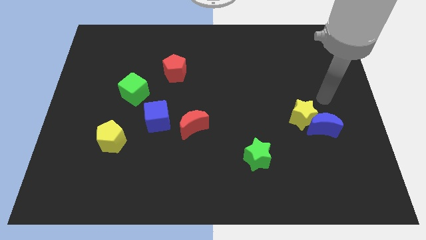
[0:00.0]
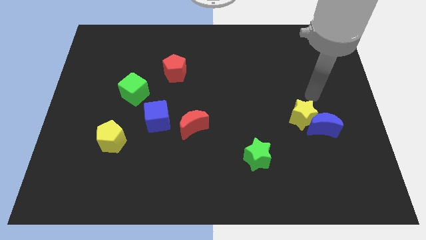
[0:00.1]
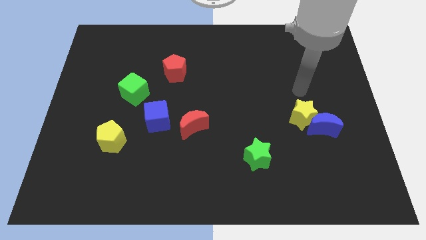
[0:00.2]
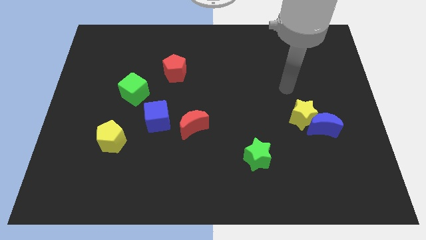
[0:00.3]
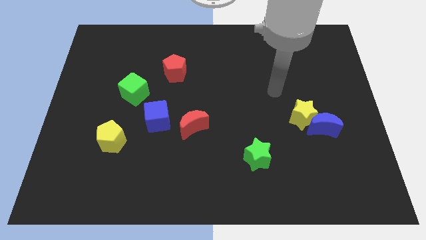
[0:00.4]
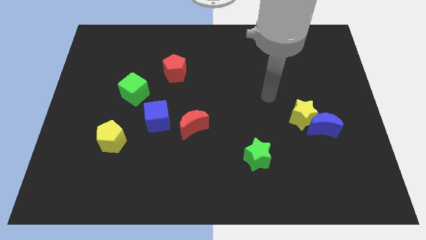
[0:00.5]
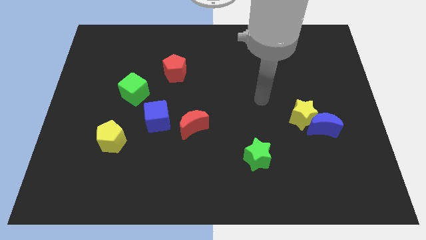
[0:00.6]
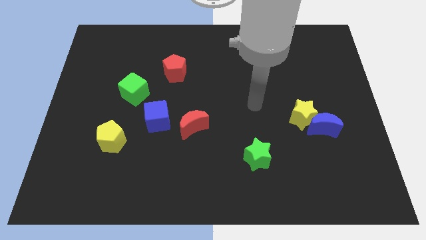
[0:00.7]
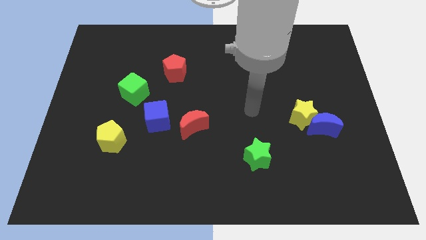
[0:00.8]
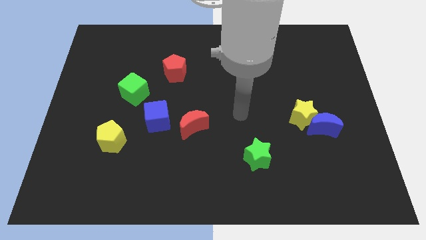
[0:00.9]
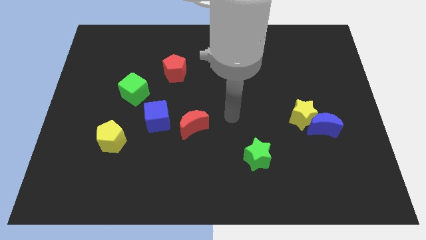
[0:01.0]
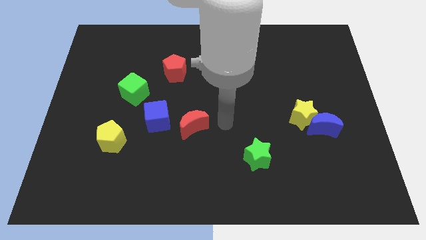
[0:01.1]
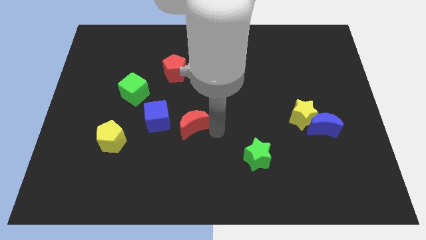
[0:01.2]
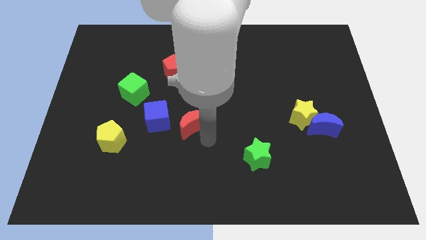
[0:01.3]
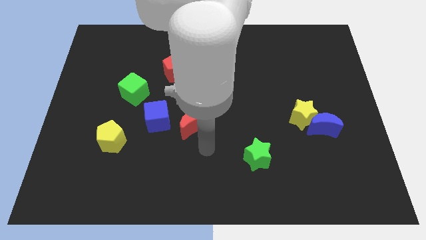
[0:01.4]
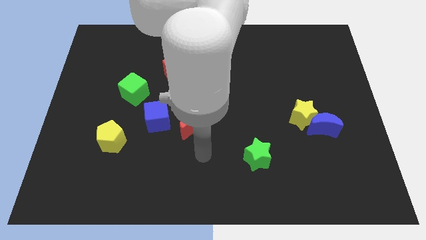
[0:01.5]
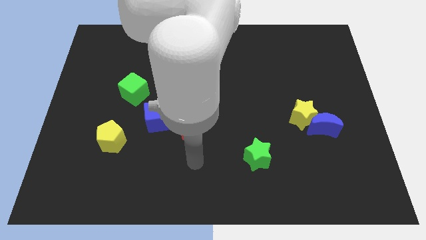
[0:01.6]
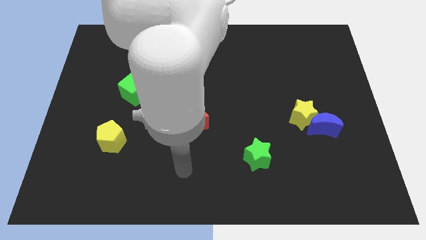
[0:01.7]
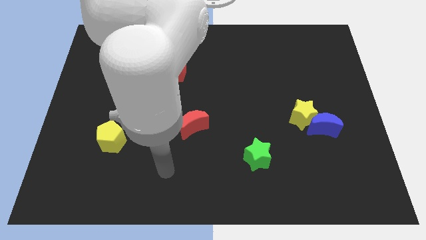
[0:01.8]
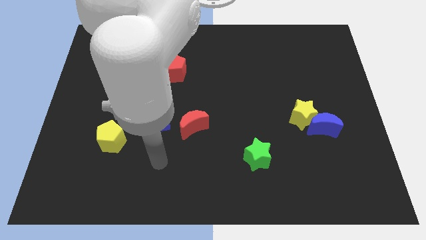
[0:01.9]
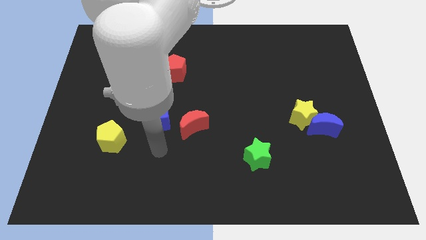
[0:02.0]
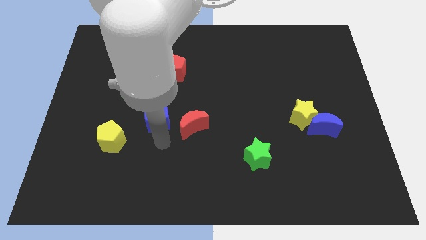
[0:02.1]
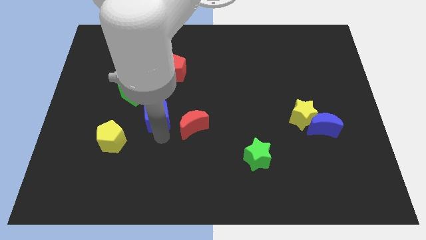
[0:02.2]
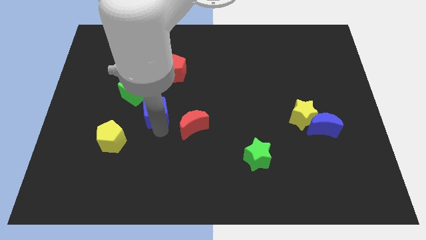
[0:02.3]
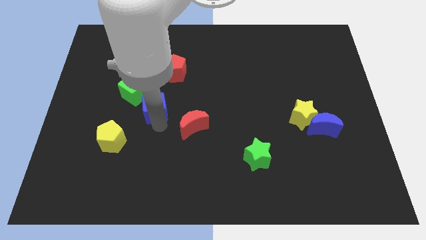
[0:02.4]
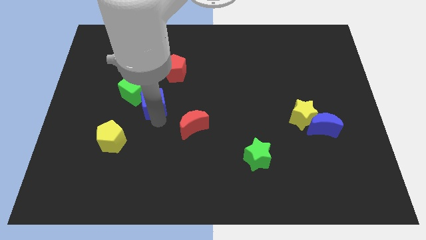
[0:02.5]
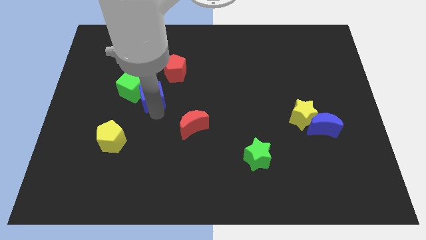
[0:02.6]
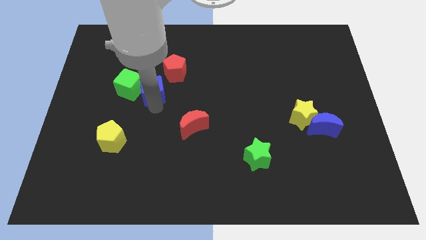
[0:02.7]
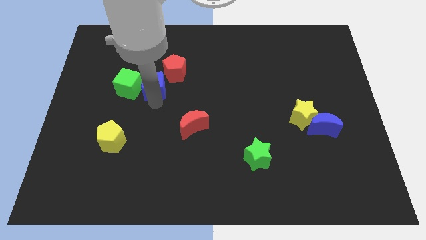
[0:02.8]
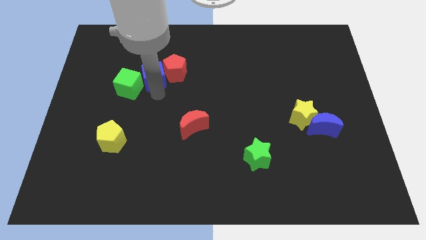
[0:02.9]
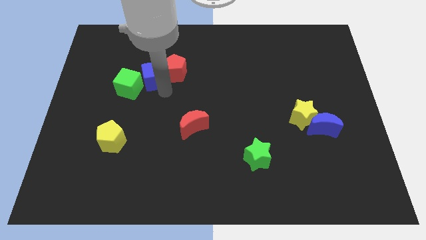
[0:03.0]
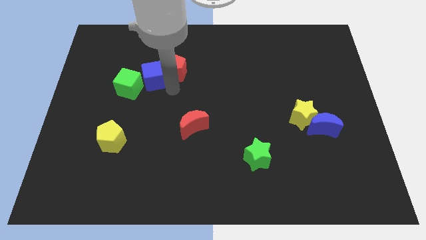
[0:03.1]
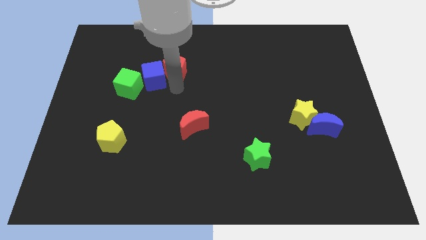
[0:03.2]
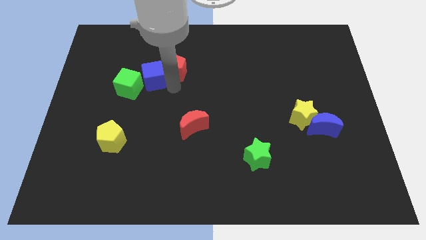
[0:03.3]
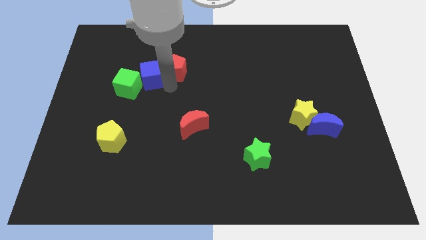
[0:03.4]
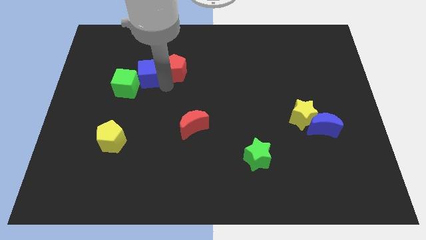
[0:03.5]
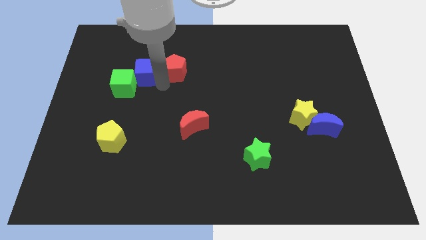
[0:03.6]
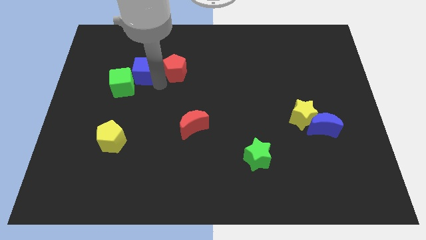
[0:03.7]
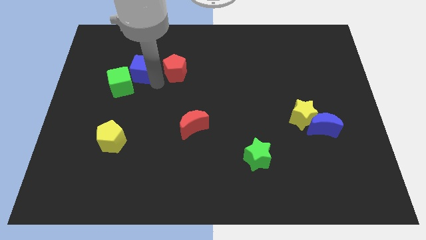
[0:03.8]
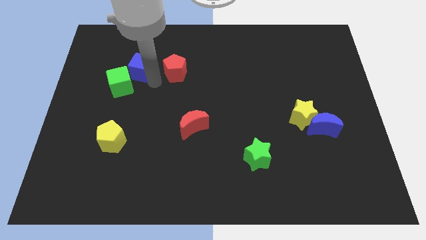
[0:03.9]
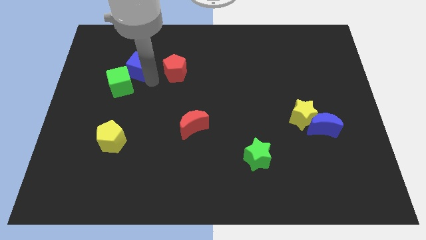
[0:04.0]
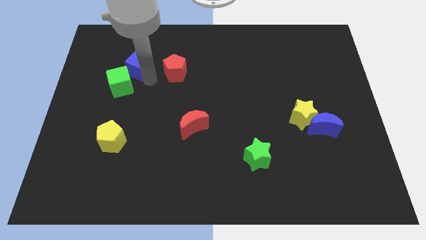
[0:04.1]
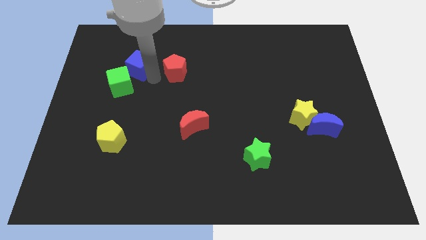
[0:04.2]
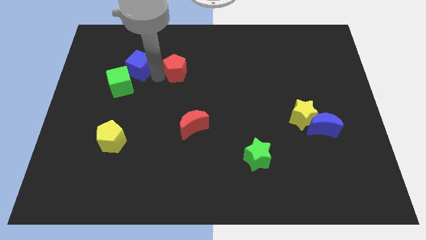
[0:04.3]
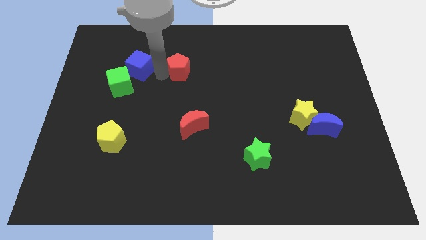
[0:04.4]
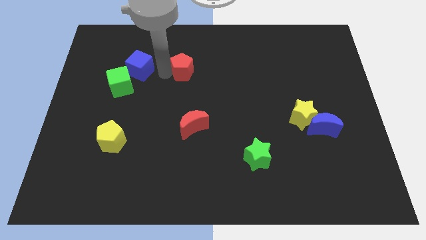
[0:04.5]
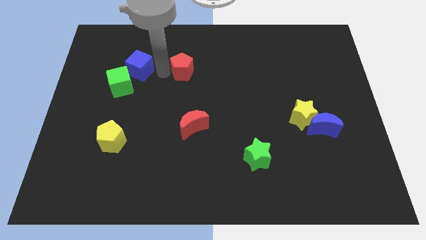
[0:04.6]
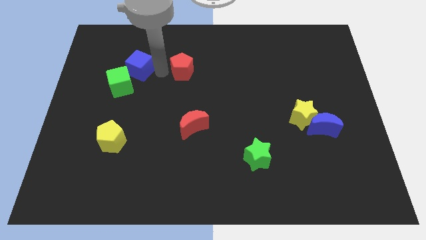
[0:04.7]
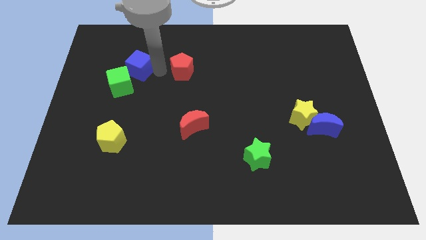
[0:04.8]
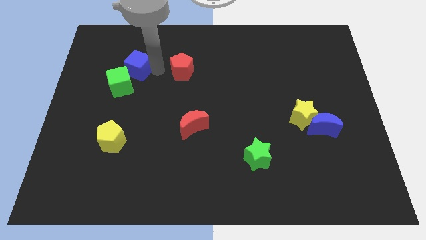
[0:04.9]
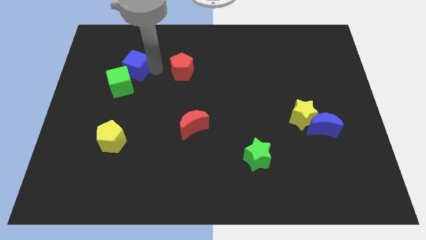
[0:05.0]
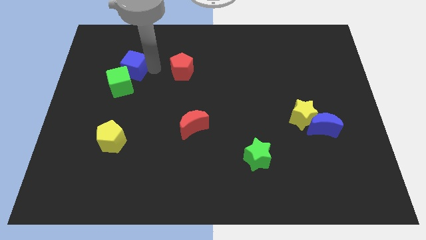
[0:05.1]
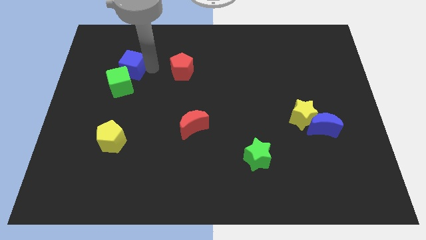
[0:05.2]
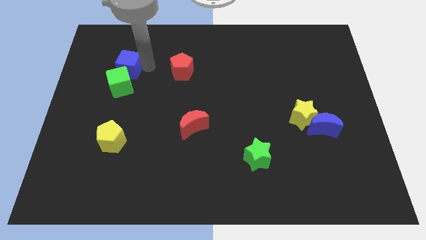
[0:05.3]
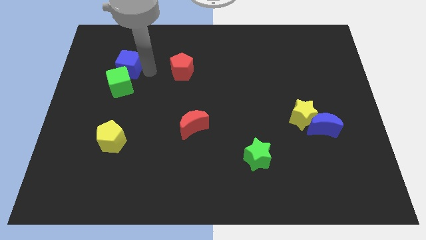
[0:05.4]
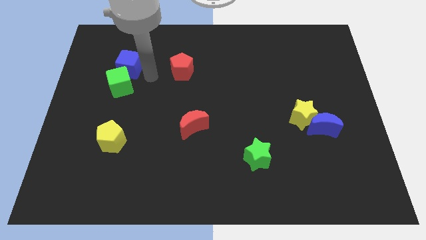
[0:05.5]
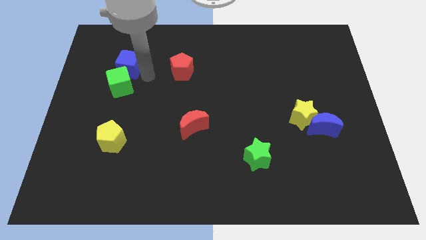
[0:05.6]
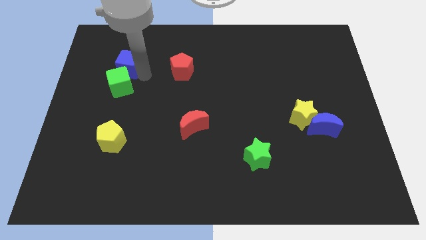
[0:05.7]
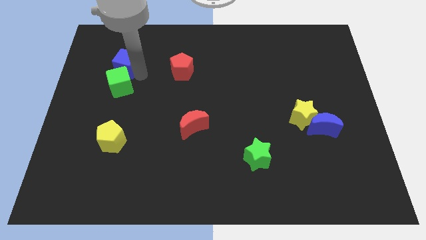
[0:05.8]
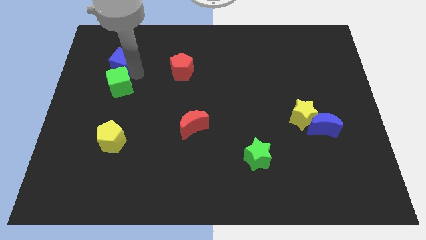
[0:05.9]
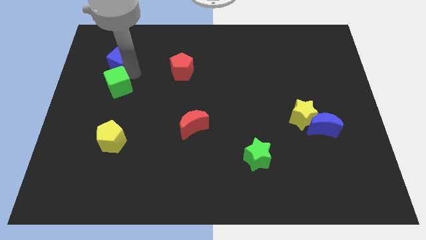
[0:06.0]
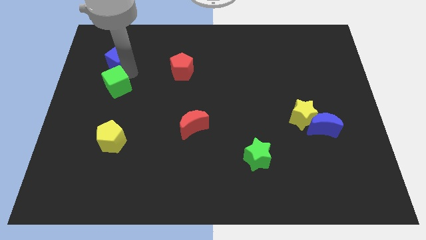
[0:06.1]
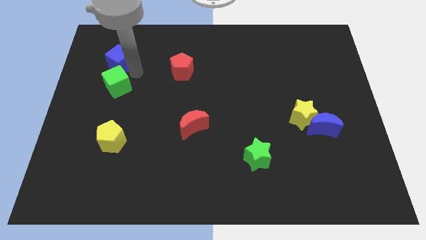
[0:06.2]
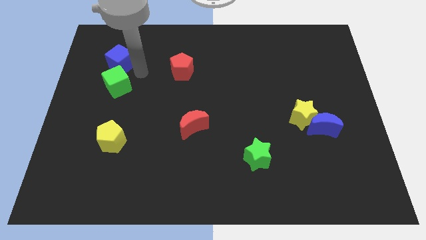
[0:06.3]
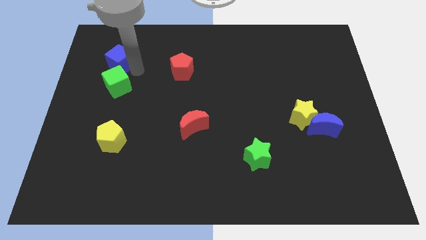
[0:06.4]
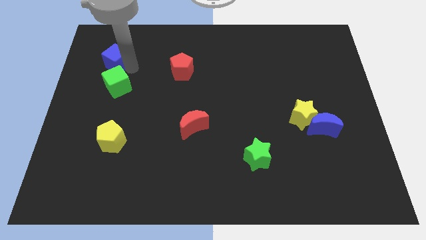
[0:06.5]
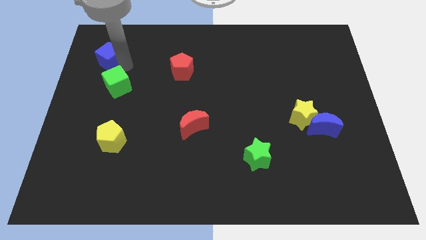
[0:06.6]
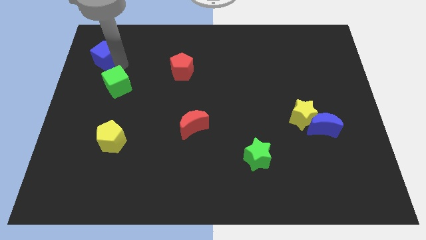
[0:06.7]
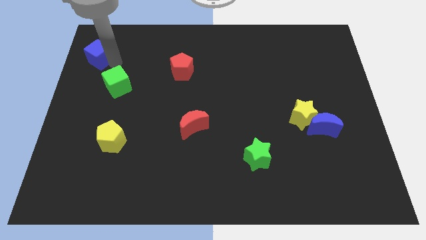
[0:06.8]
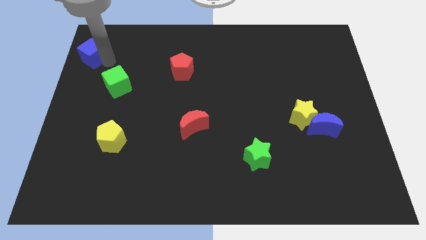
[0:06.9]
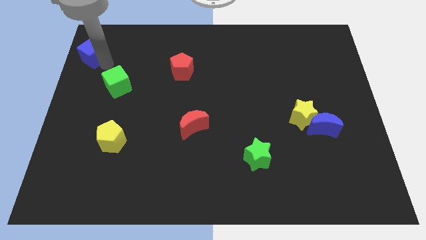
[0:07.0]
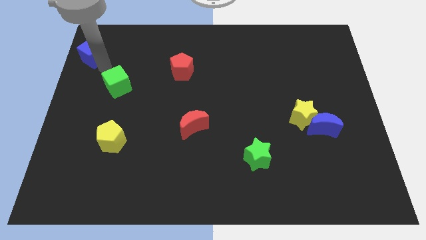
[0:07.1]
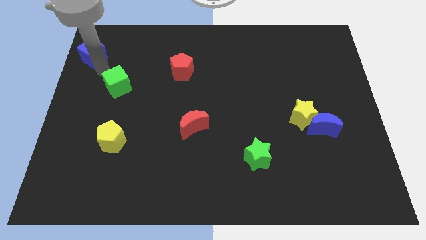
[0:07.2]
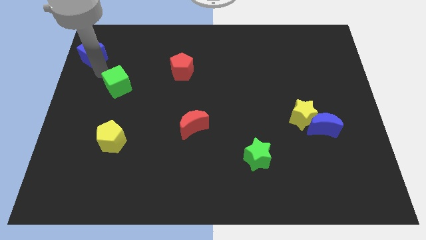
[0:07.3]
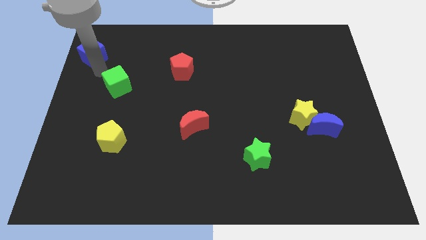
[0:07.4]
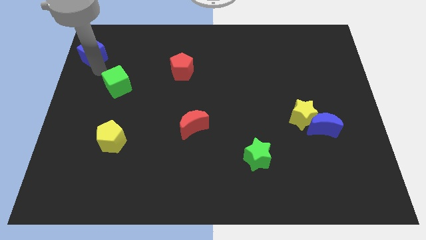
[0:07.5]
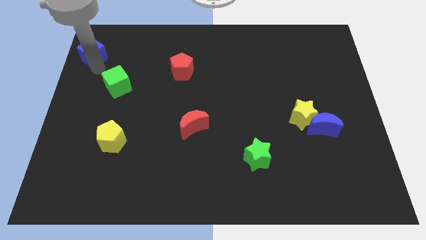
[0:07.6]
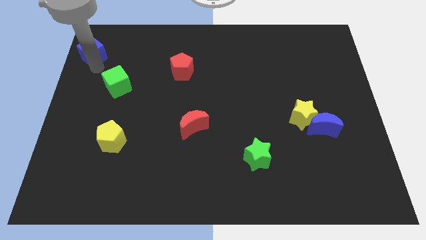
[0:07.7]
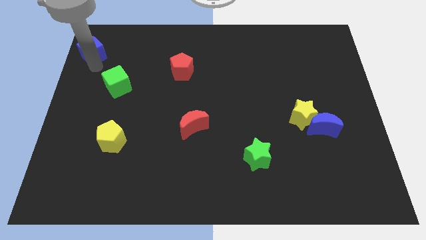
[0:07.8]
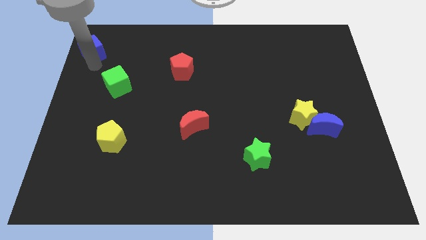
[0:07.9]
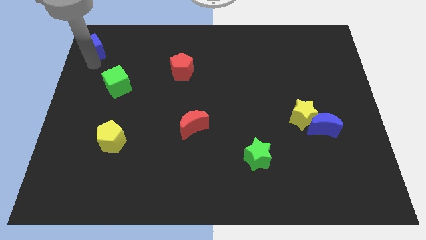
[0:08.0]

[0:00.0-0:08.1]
push the blue cube to the upper left corner
